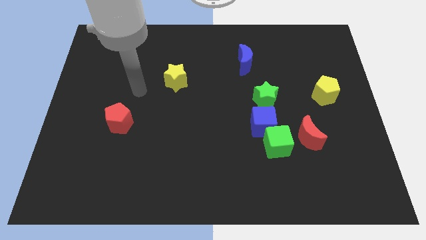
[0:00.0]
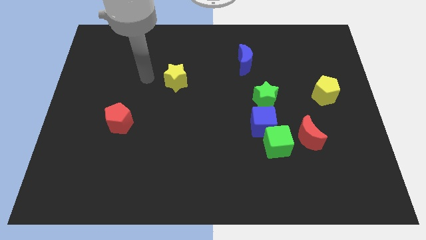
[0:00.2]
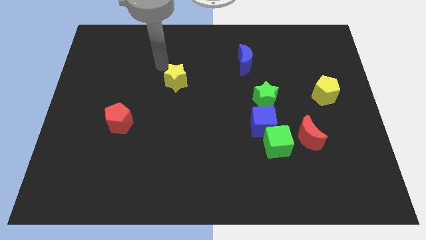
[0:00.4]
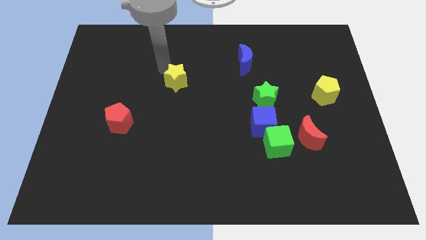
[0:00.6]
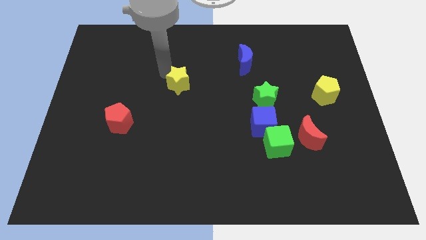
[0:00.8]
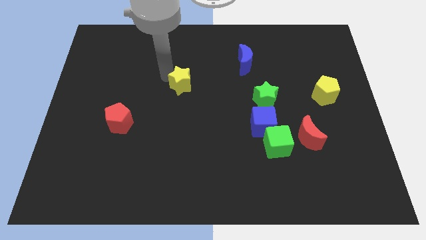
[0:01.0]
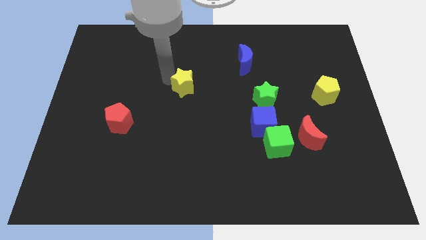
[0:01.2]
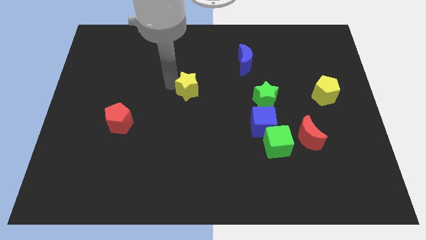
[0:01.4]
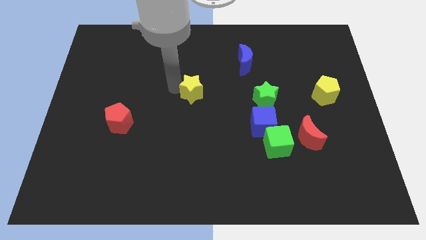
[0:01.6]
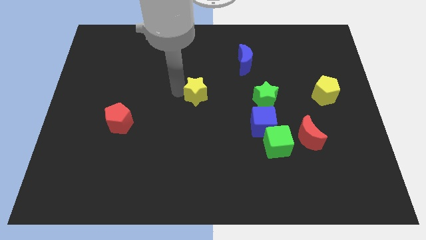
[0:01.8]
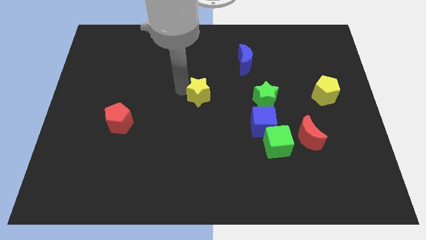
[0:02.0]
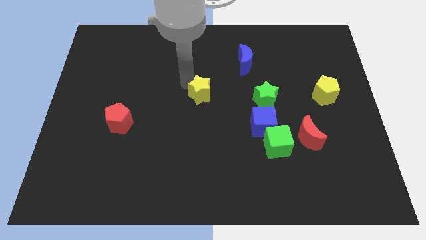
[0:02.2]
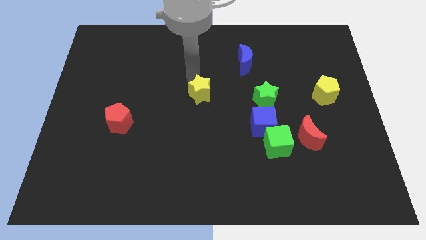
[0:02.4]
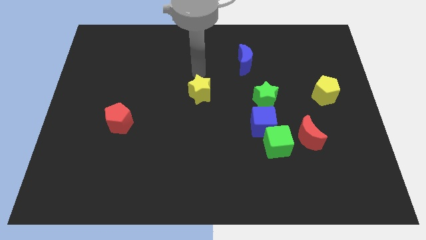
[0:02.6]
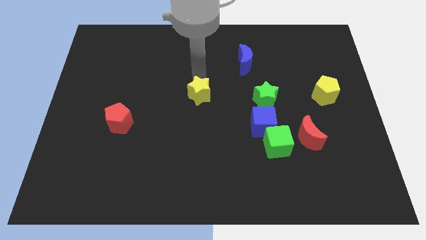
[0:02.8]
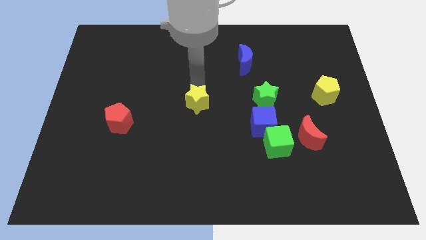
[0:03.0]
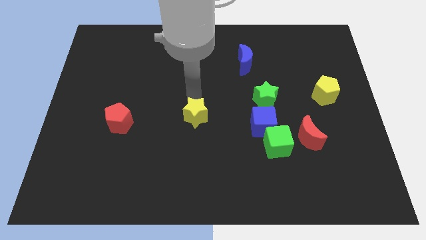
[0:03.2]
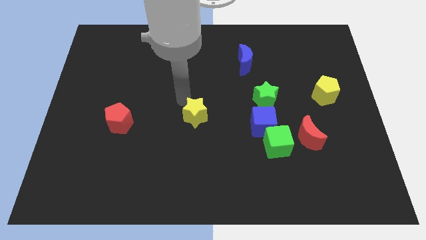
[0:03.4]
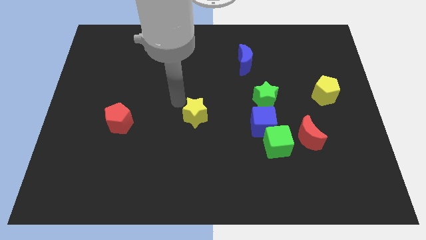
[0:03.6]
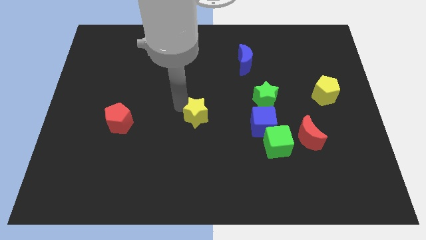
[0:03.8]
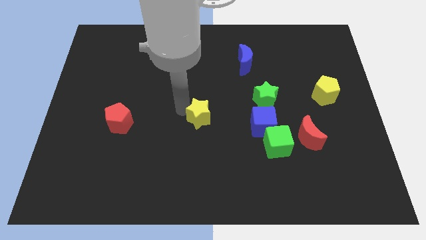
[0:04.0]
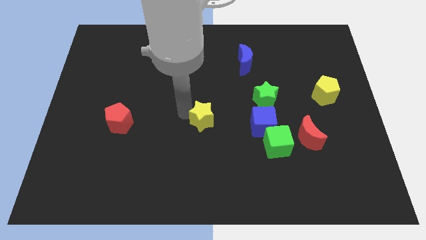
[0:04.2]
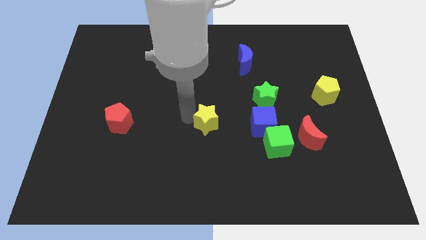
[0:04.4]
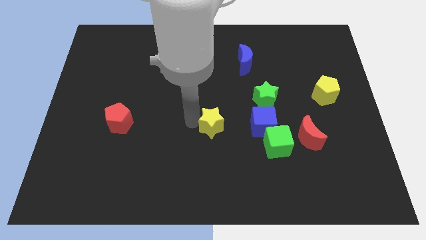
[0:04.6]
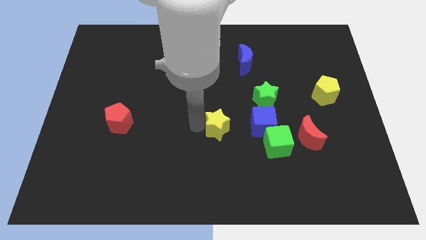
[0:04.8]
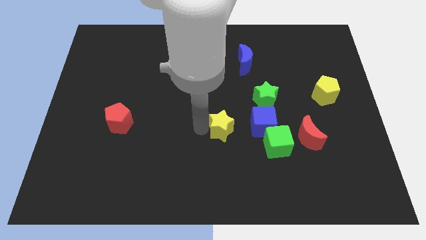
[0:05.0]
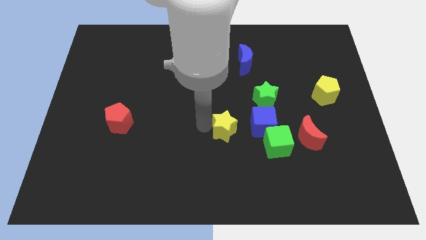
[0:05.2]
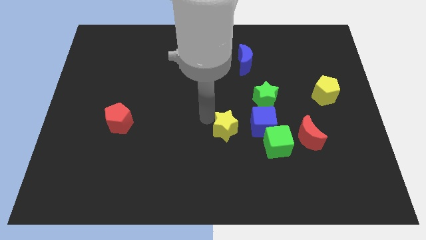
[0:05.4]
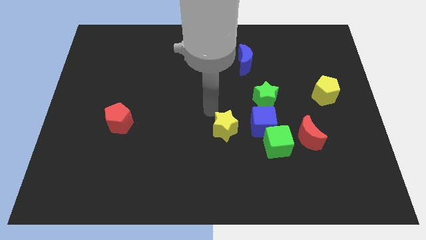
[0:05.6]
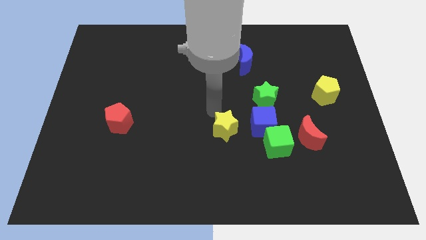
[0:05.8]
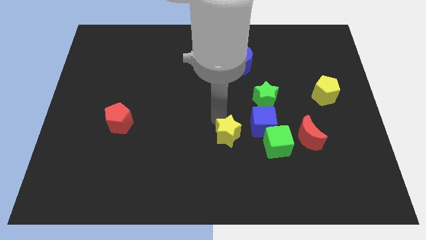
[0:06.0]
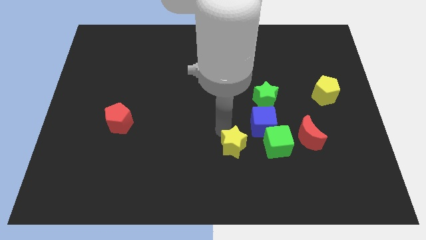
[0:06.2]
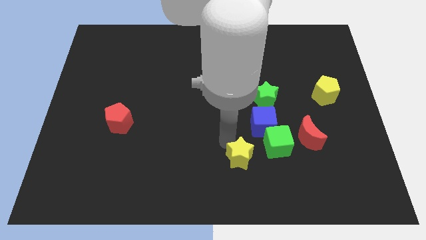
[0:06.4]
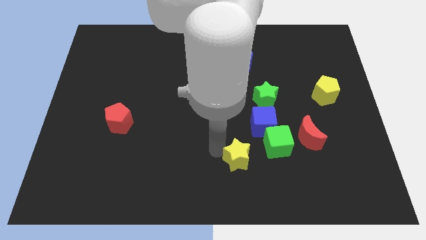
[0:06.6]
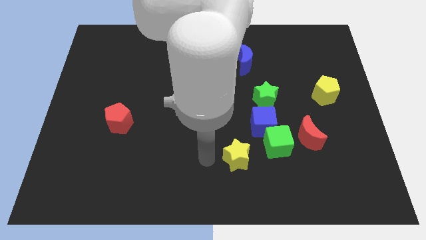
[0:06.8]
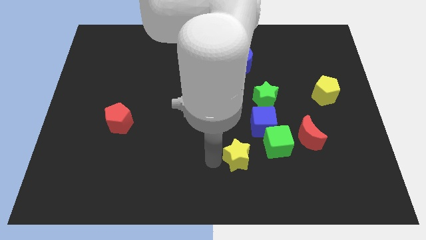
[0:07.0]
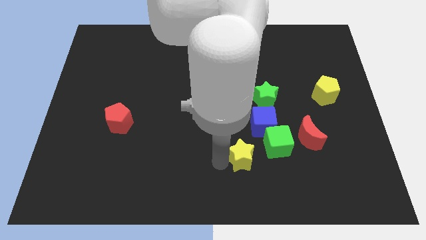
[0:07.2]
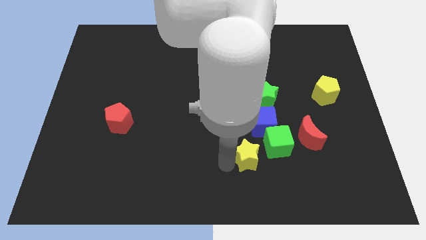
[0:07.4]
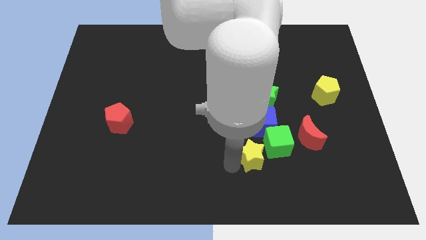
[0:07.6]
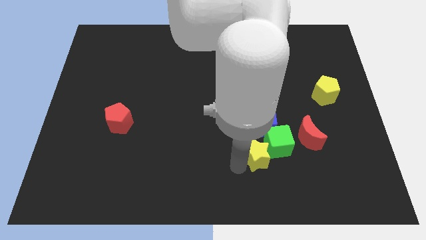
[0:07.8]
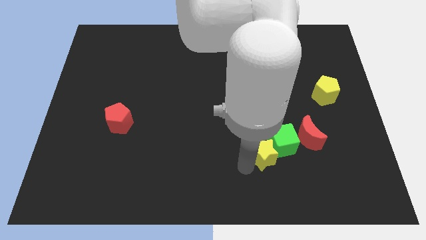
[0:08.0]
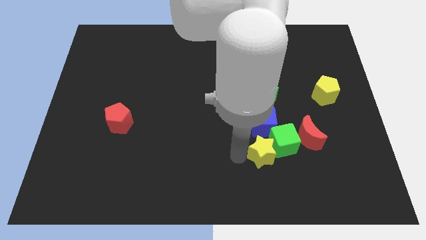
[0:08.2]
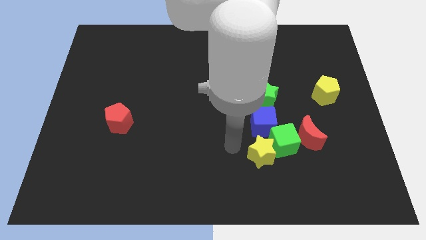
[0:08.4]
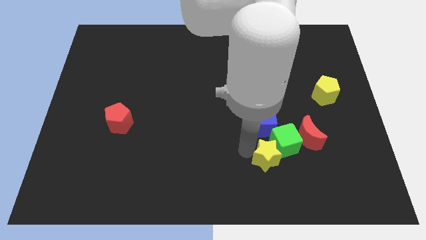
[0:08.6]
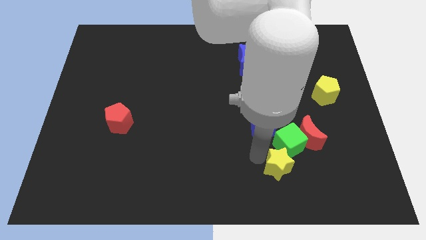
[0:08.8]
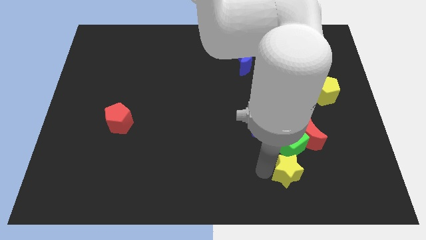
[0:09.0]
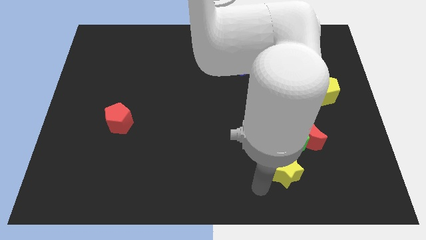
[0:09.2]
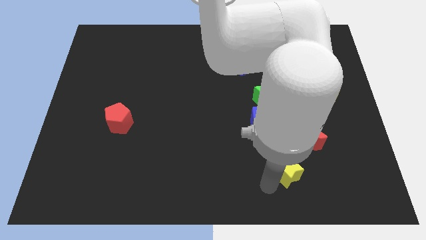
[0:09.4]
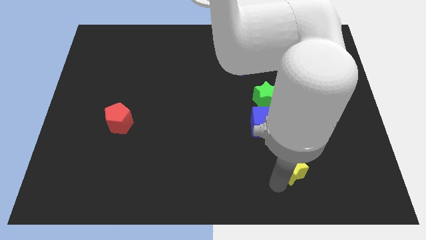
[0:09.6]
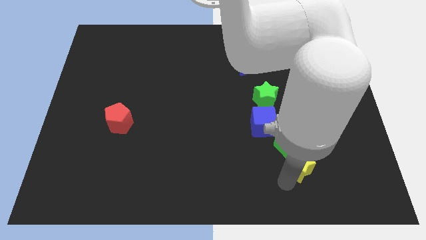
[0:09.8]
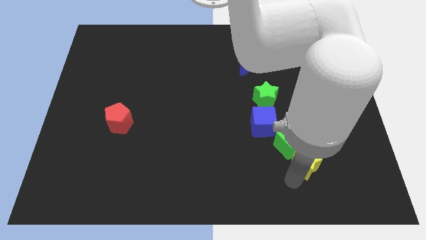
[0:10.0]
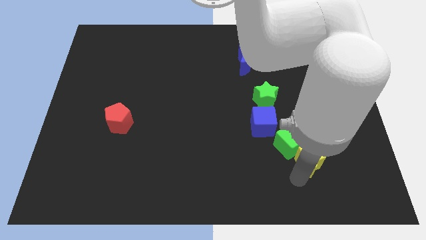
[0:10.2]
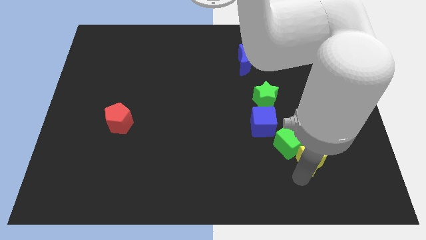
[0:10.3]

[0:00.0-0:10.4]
push the yellow star to the right of the green cube

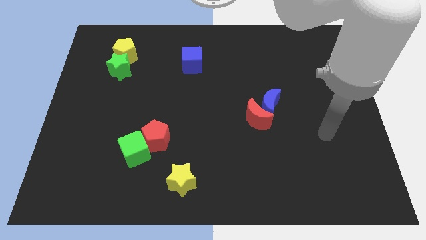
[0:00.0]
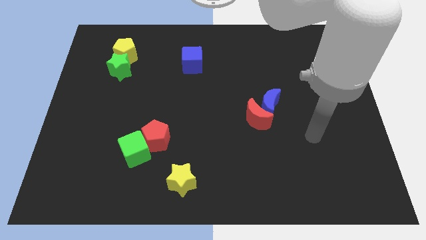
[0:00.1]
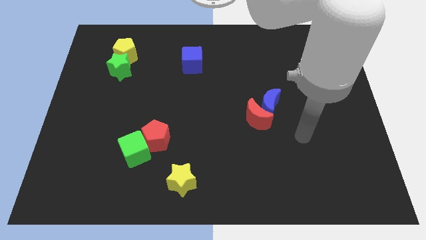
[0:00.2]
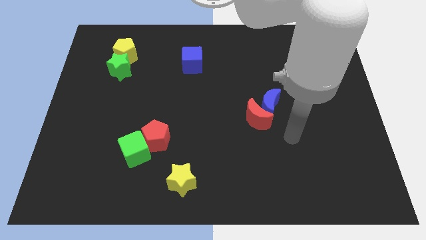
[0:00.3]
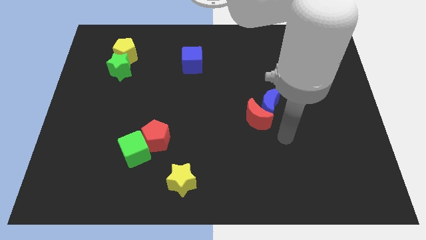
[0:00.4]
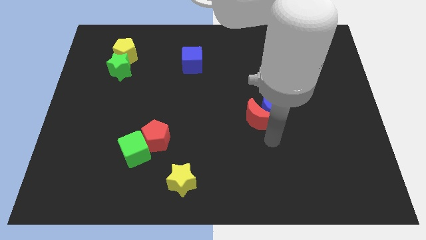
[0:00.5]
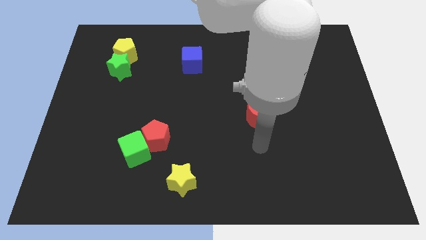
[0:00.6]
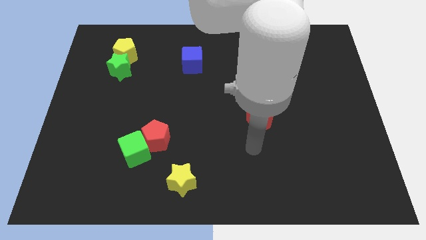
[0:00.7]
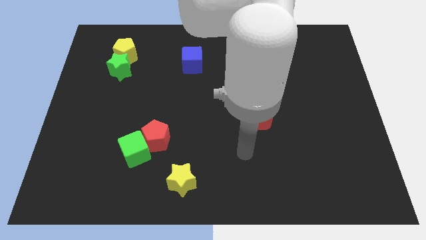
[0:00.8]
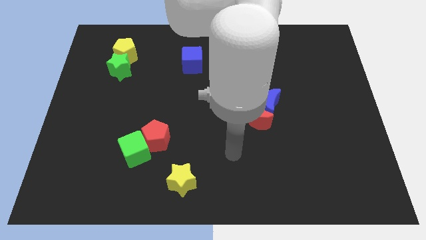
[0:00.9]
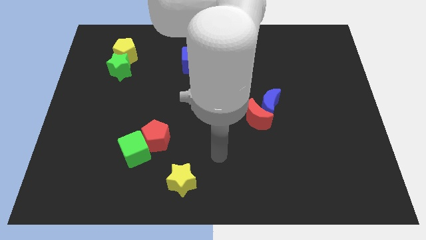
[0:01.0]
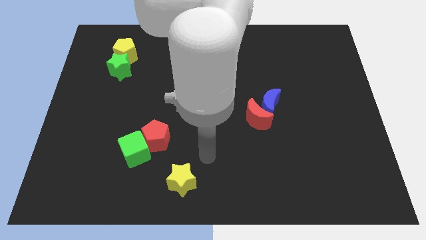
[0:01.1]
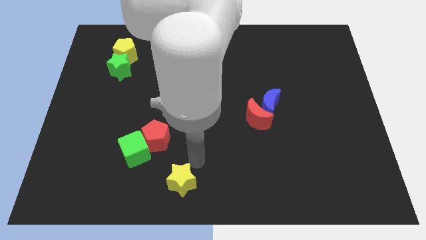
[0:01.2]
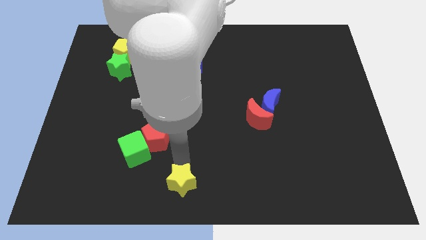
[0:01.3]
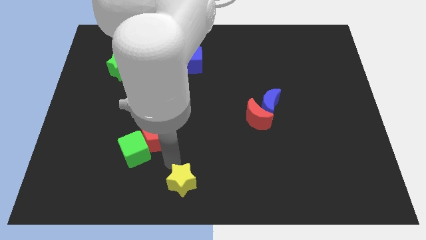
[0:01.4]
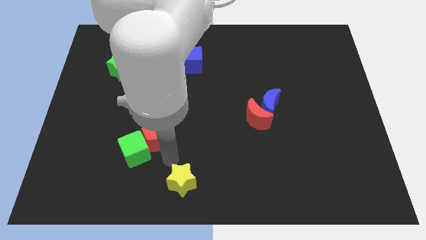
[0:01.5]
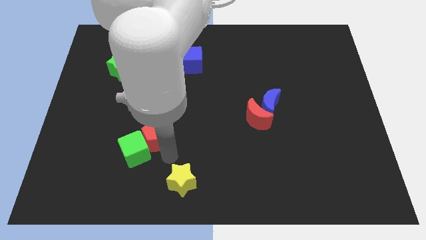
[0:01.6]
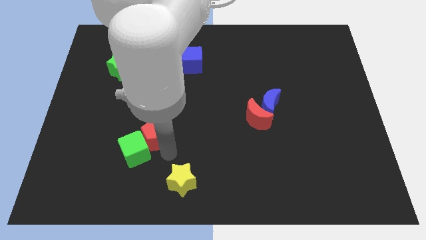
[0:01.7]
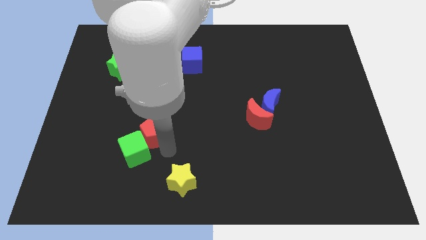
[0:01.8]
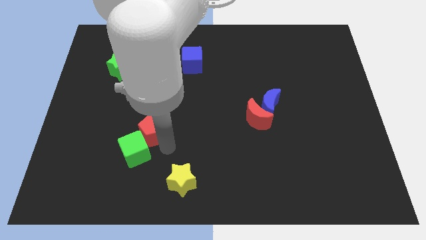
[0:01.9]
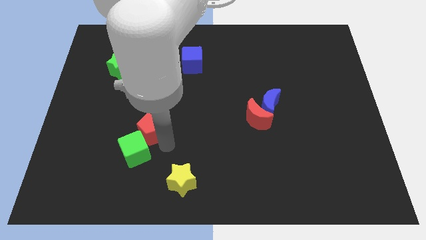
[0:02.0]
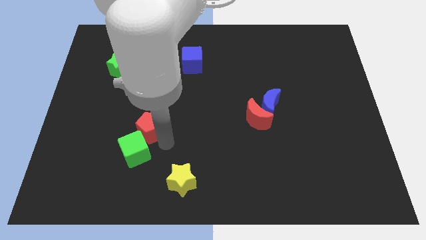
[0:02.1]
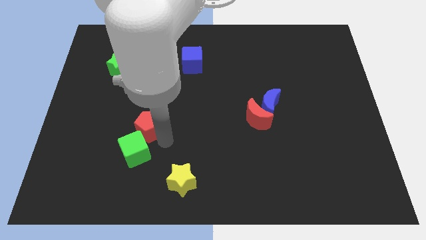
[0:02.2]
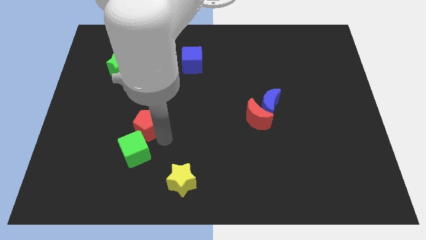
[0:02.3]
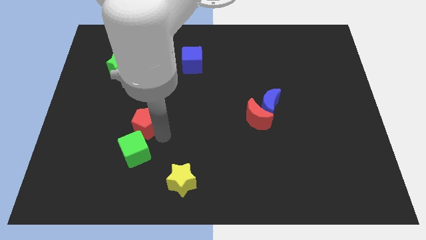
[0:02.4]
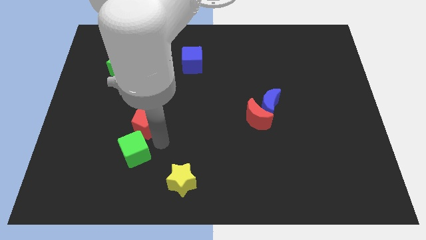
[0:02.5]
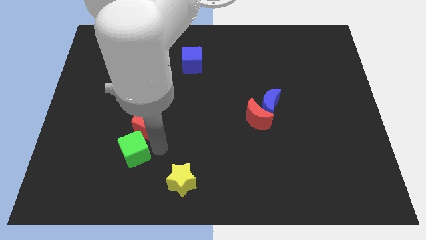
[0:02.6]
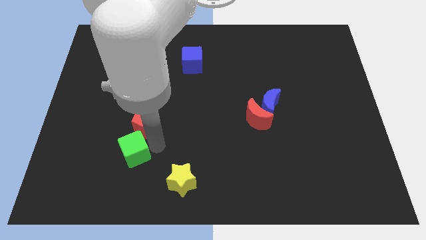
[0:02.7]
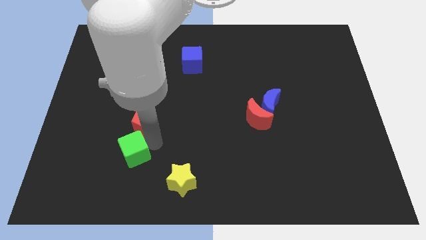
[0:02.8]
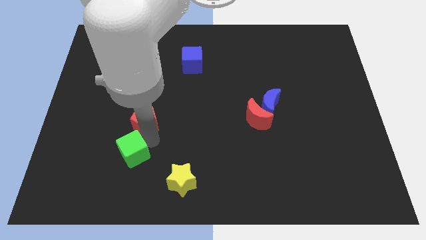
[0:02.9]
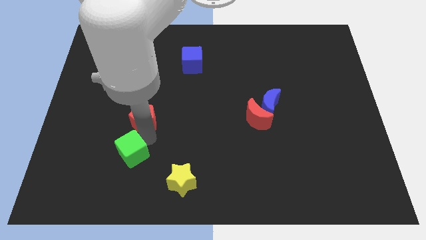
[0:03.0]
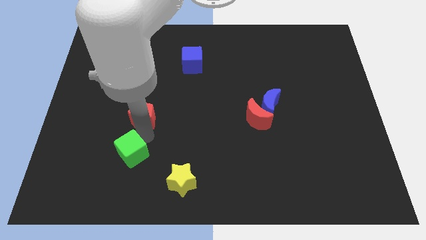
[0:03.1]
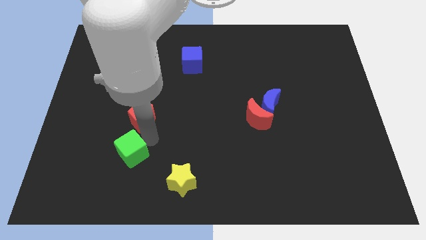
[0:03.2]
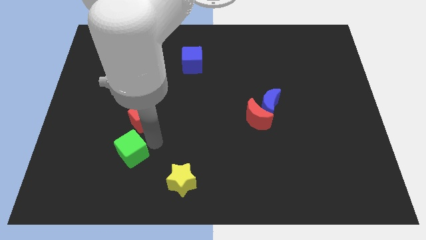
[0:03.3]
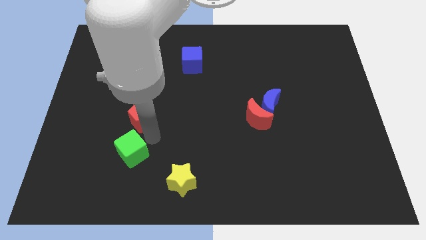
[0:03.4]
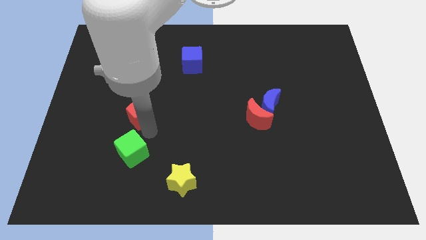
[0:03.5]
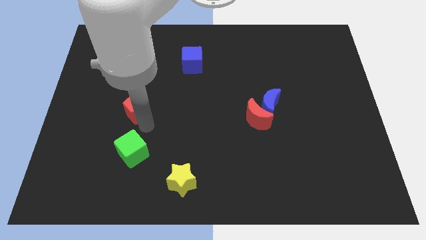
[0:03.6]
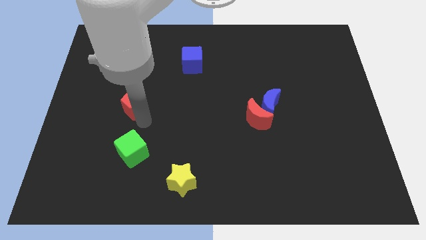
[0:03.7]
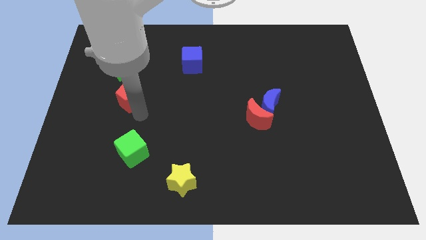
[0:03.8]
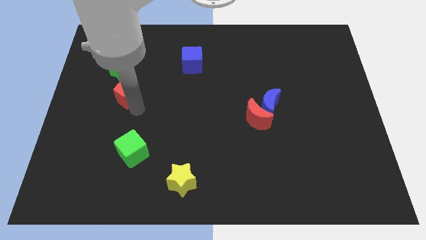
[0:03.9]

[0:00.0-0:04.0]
push the red pentagon below the yellow pentagon
